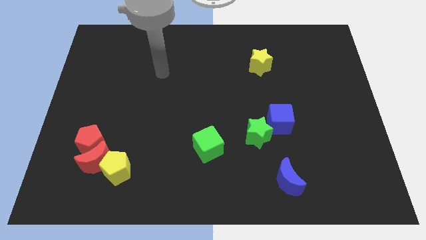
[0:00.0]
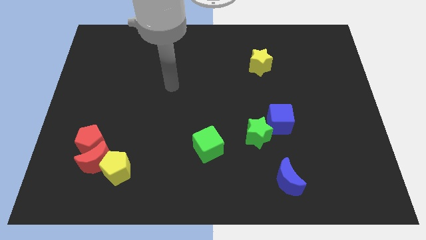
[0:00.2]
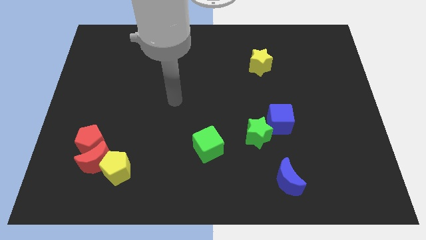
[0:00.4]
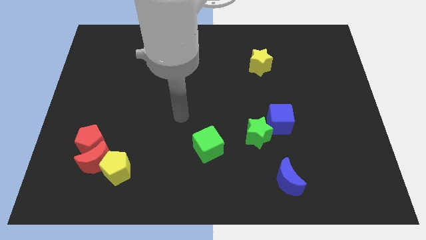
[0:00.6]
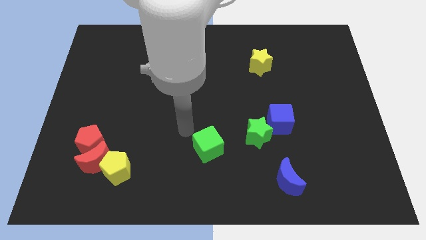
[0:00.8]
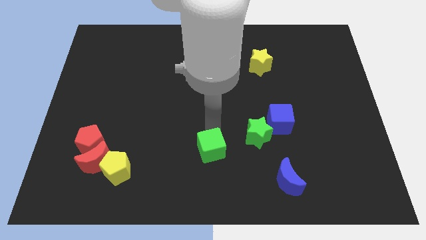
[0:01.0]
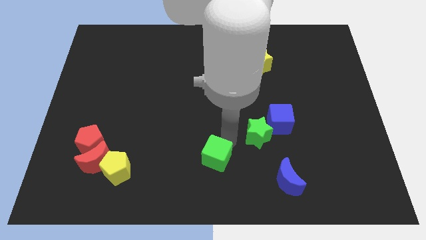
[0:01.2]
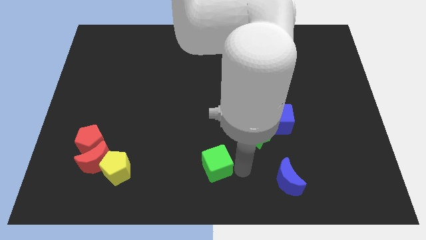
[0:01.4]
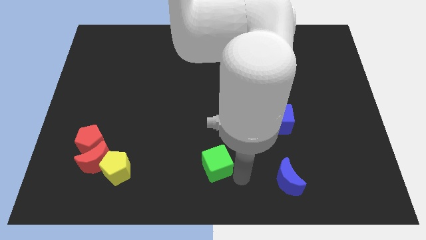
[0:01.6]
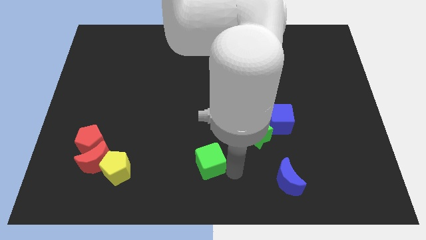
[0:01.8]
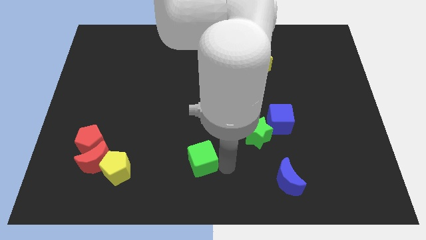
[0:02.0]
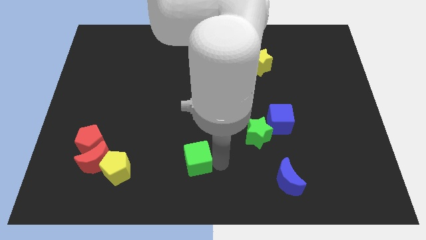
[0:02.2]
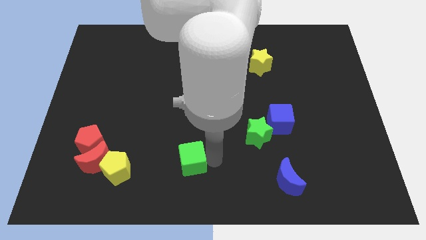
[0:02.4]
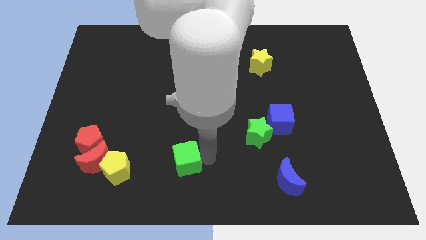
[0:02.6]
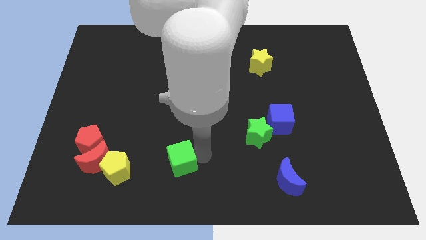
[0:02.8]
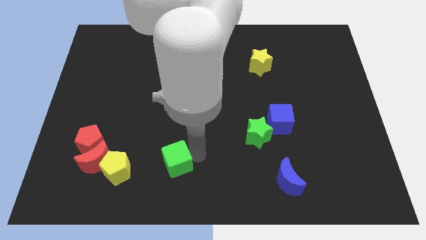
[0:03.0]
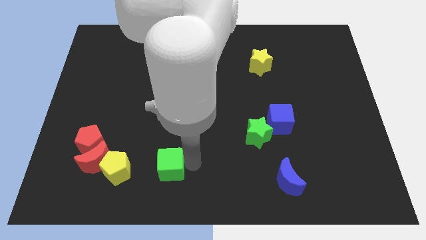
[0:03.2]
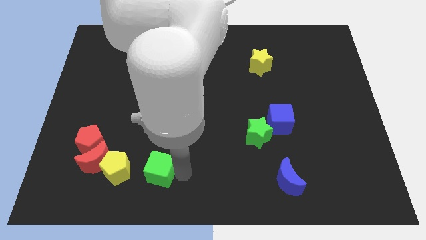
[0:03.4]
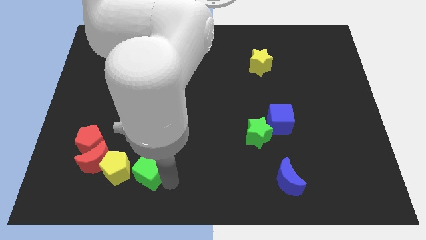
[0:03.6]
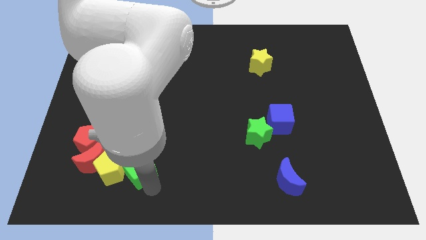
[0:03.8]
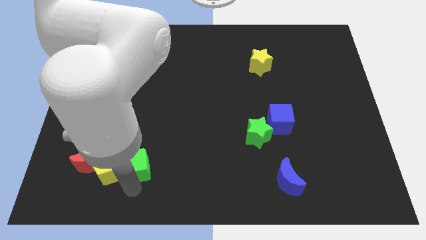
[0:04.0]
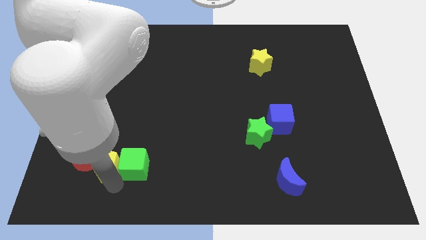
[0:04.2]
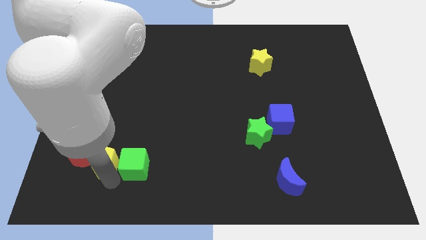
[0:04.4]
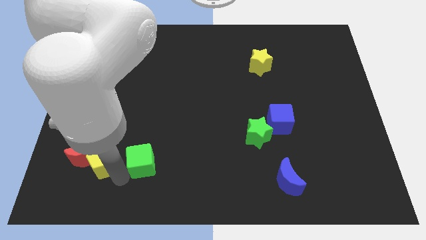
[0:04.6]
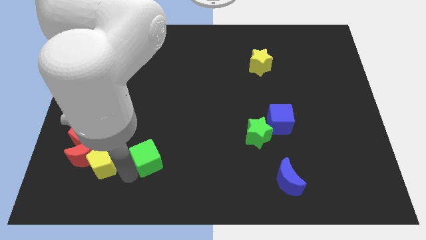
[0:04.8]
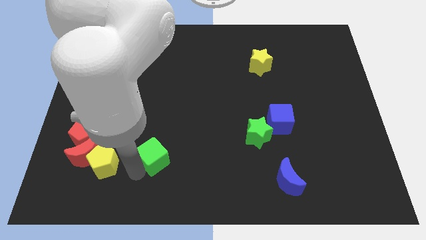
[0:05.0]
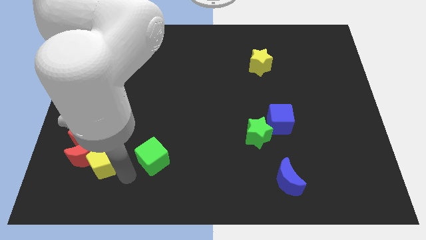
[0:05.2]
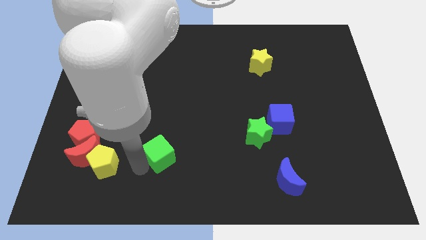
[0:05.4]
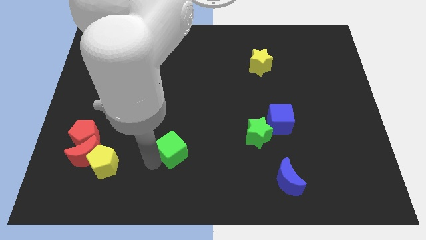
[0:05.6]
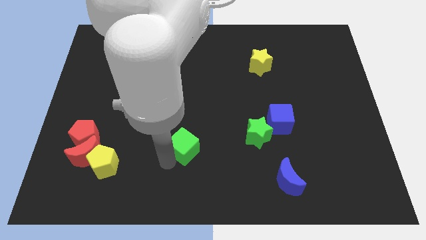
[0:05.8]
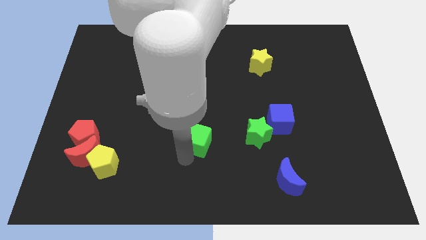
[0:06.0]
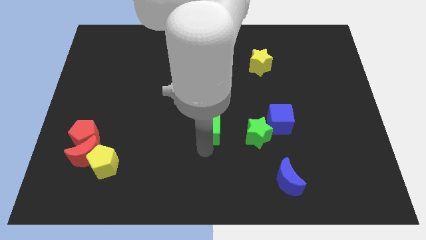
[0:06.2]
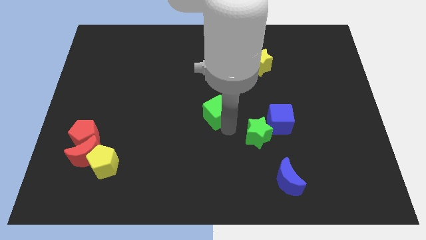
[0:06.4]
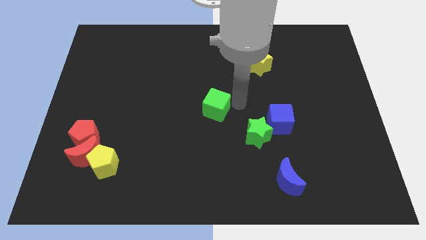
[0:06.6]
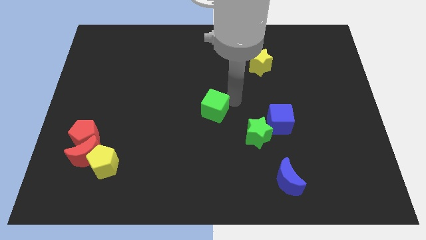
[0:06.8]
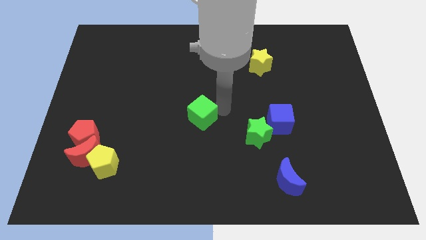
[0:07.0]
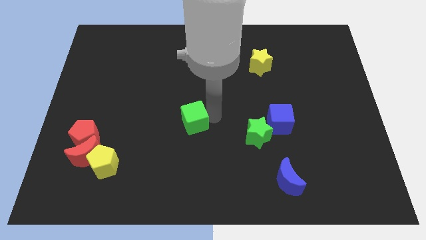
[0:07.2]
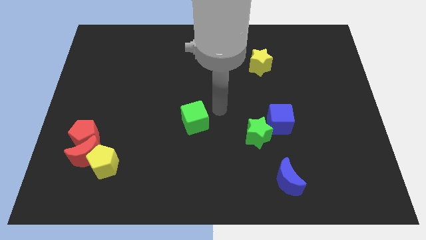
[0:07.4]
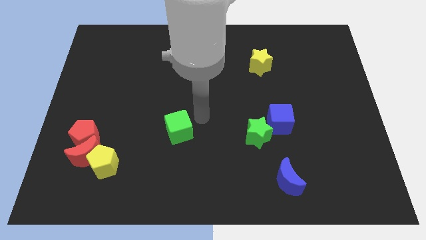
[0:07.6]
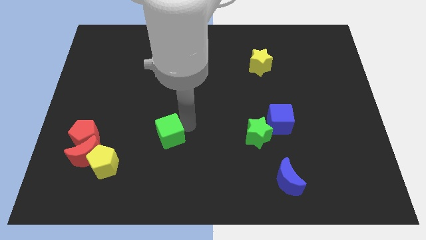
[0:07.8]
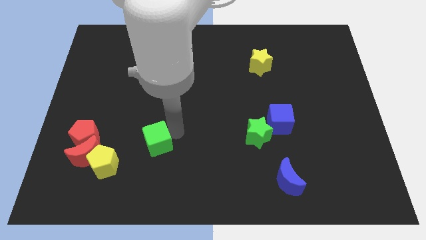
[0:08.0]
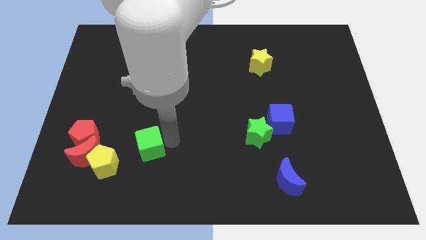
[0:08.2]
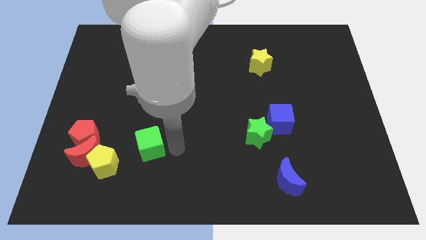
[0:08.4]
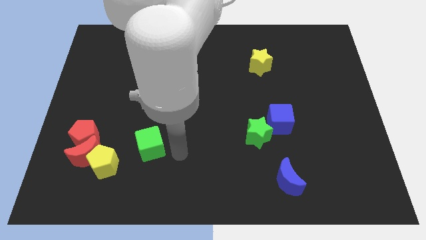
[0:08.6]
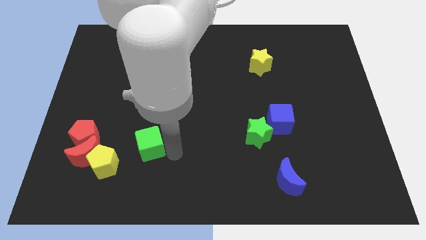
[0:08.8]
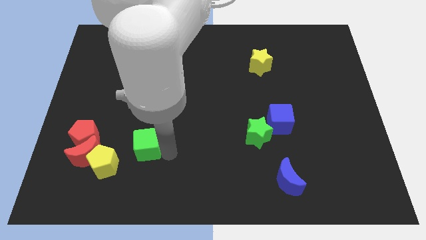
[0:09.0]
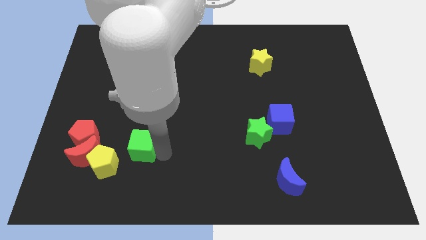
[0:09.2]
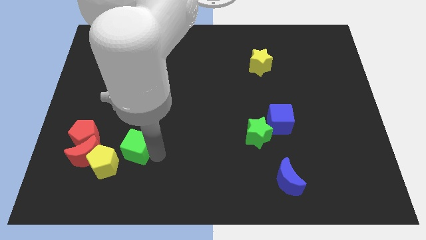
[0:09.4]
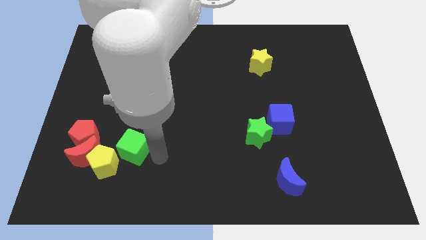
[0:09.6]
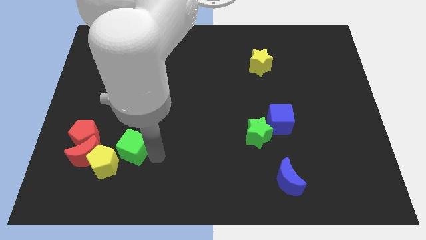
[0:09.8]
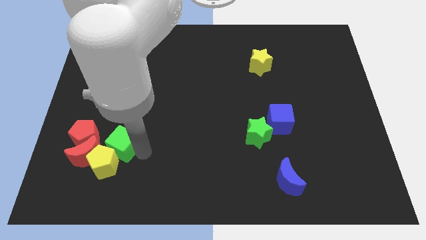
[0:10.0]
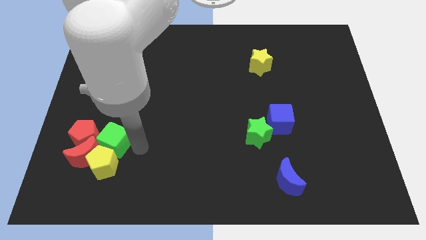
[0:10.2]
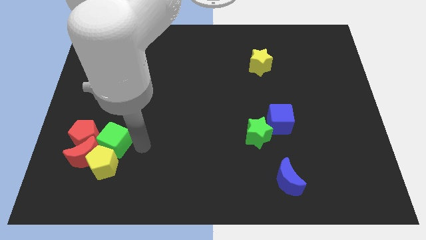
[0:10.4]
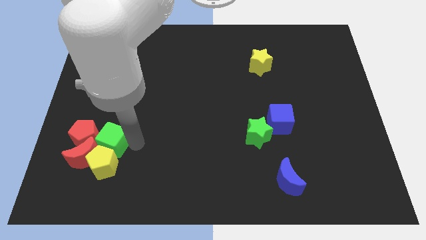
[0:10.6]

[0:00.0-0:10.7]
move the green cube towards the red pentagon

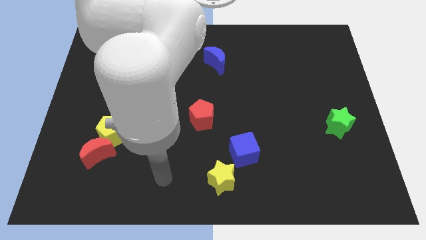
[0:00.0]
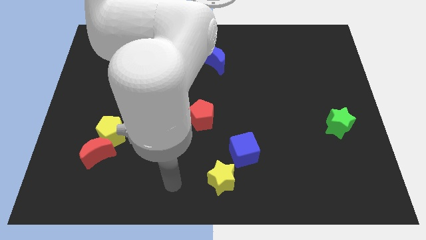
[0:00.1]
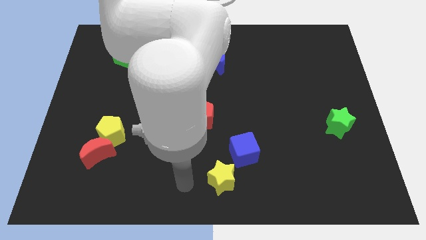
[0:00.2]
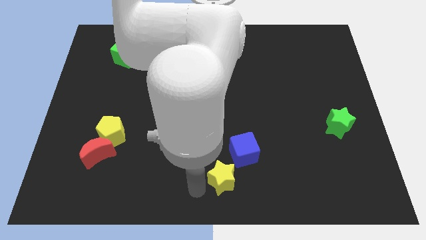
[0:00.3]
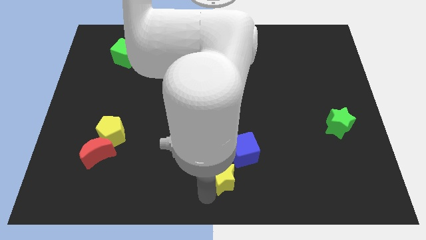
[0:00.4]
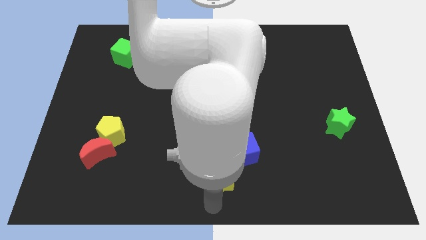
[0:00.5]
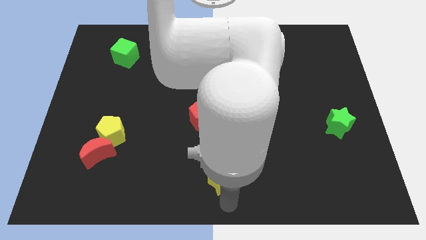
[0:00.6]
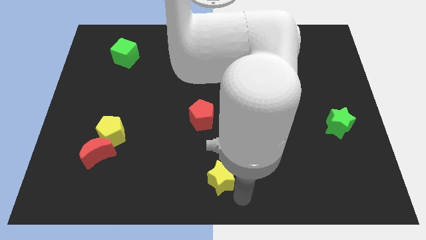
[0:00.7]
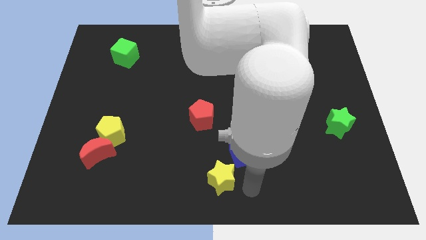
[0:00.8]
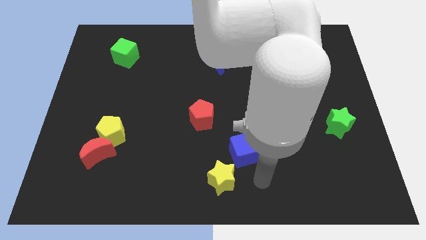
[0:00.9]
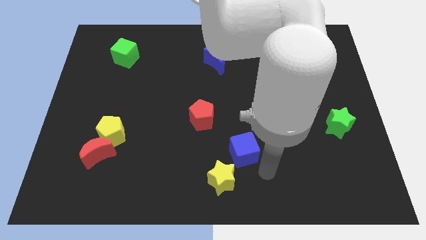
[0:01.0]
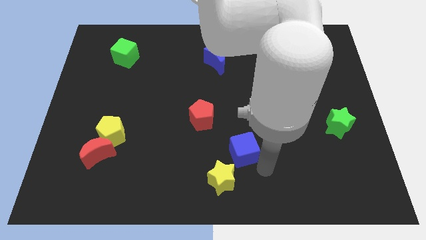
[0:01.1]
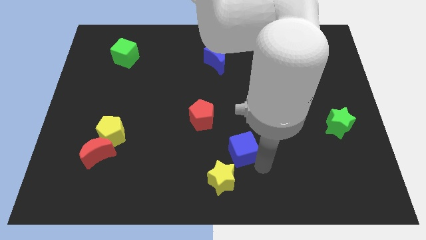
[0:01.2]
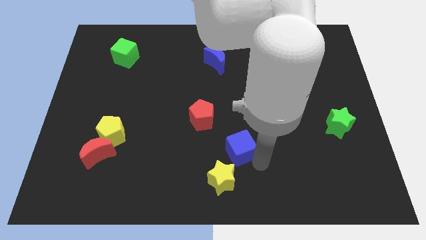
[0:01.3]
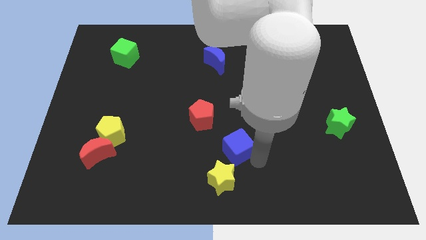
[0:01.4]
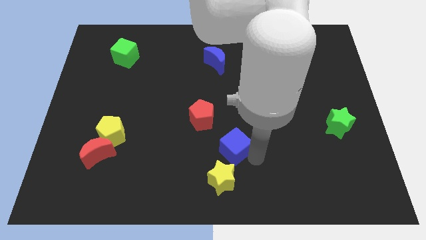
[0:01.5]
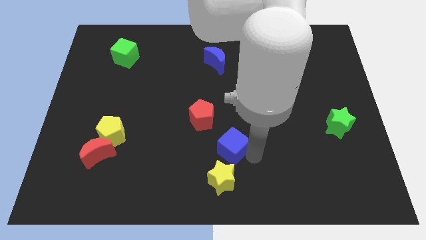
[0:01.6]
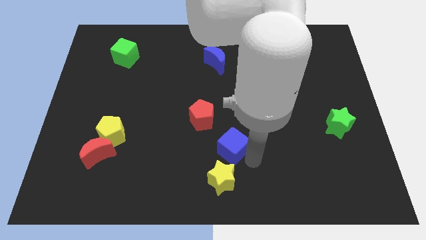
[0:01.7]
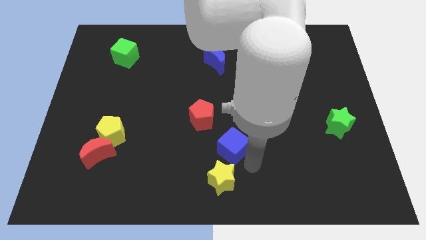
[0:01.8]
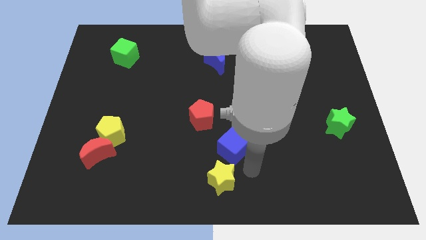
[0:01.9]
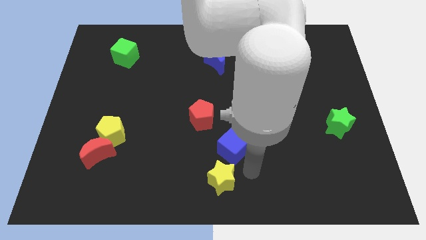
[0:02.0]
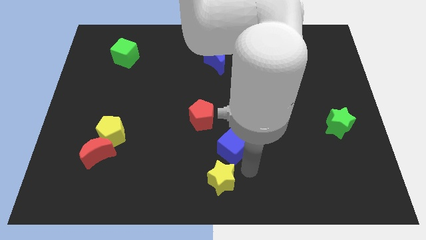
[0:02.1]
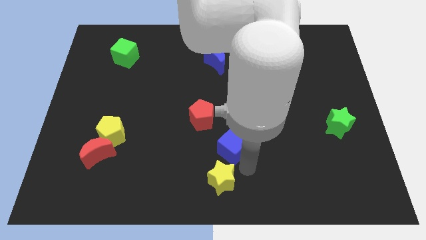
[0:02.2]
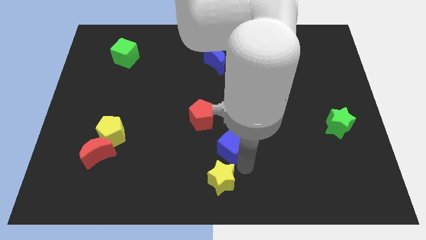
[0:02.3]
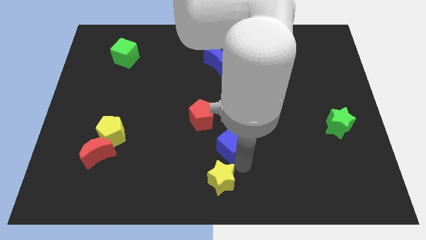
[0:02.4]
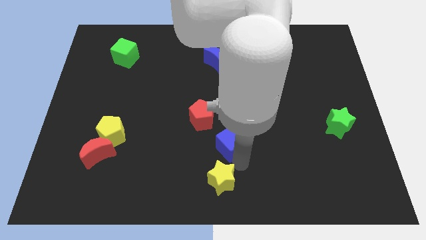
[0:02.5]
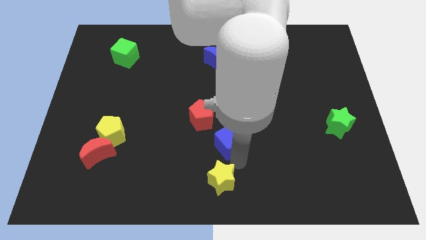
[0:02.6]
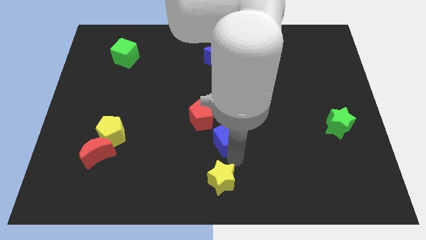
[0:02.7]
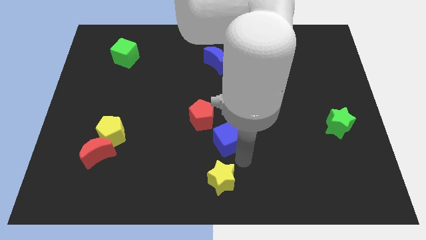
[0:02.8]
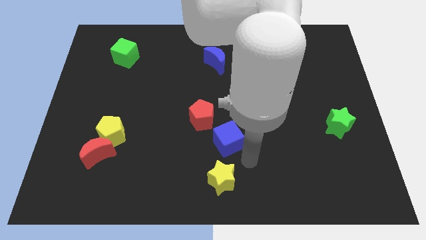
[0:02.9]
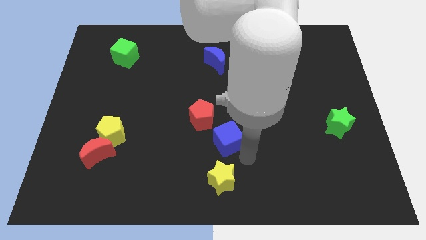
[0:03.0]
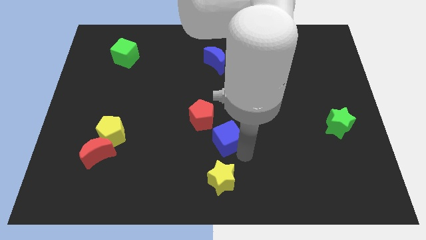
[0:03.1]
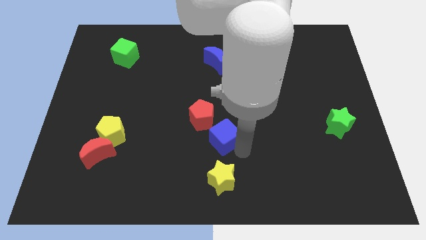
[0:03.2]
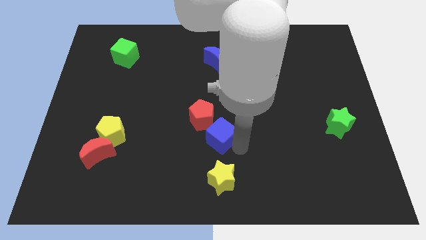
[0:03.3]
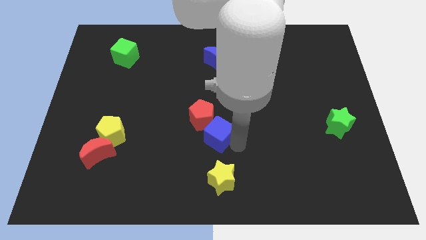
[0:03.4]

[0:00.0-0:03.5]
slide the blue cube to the red pentagon
